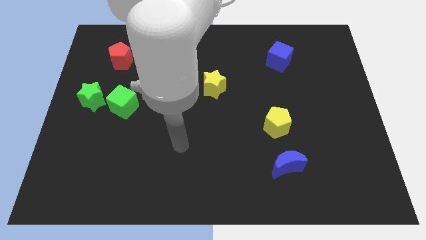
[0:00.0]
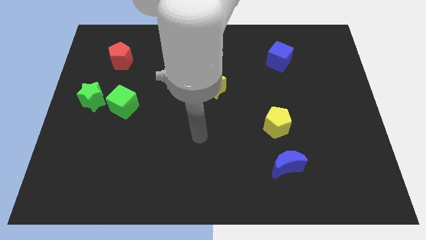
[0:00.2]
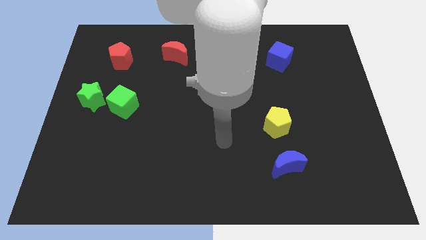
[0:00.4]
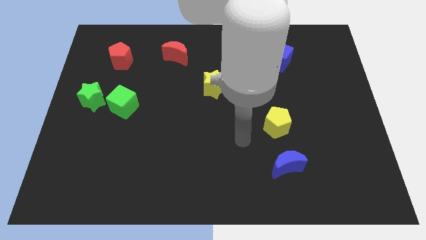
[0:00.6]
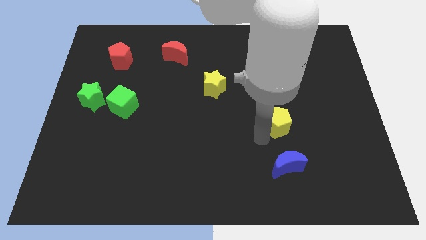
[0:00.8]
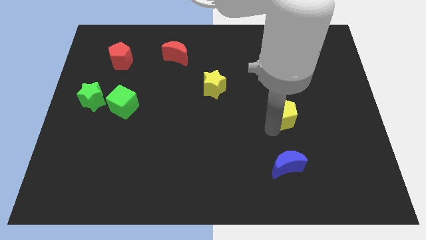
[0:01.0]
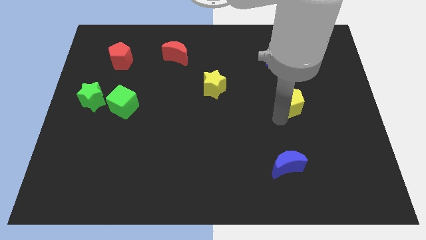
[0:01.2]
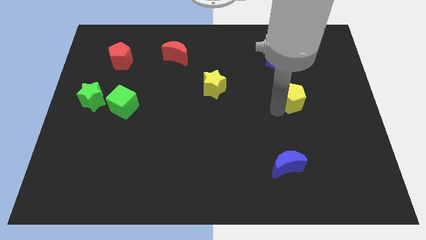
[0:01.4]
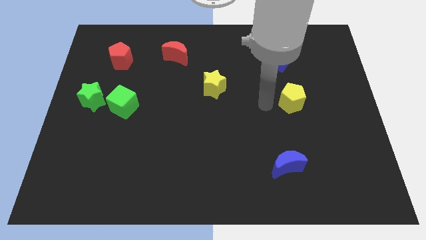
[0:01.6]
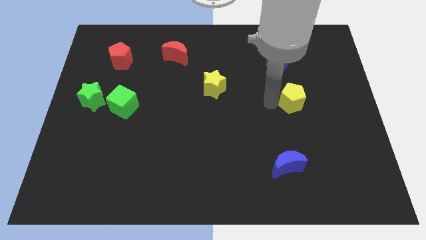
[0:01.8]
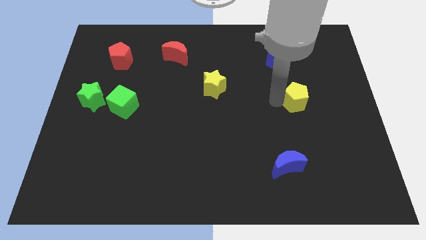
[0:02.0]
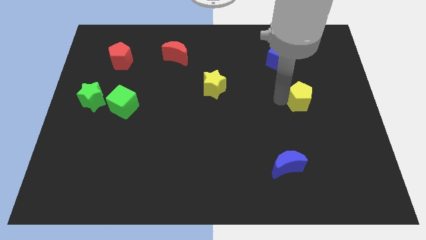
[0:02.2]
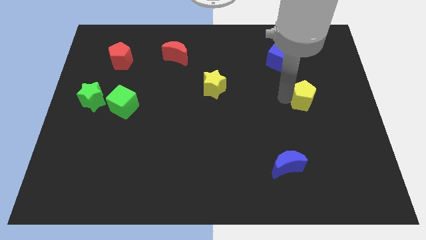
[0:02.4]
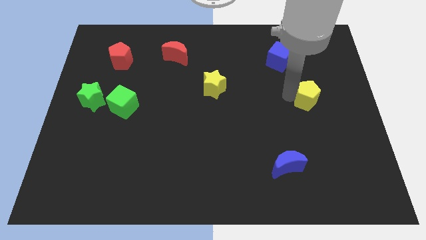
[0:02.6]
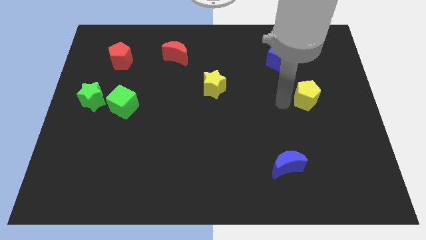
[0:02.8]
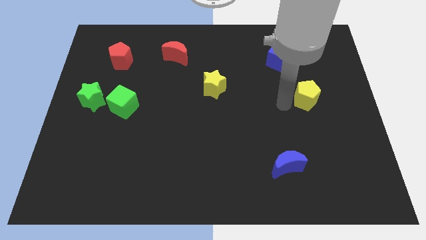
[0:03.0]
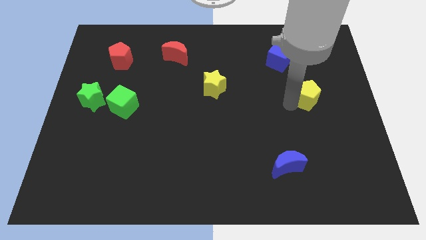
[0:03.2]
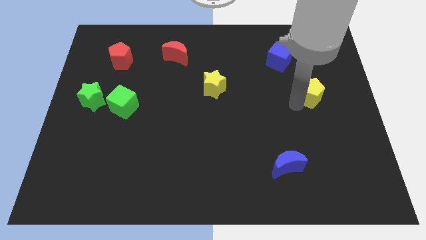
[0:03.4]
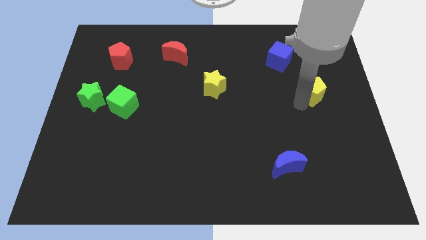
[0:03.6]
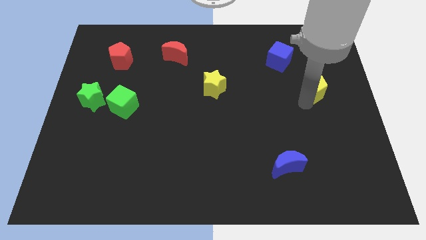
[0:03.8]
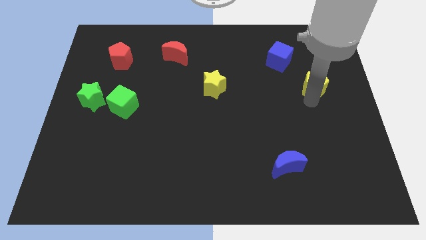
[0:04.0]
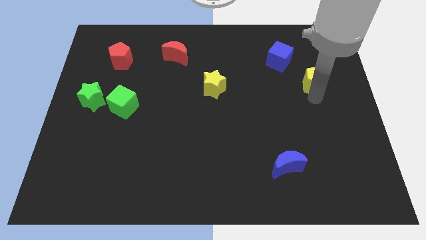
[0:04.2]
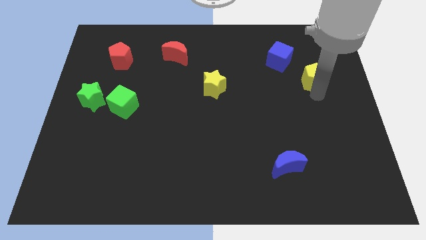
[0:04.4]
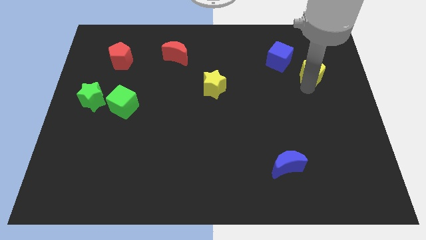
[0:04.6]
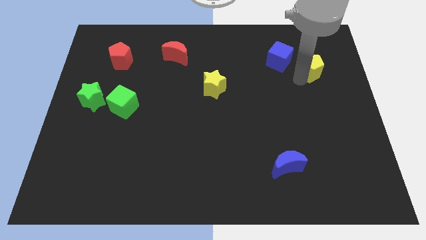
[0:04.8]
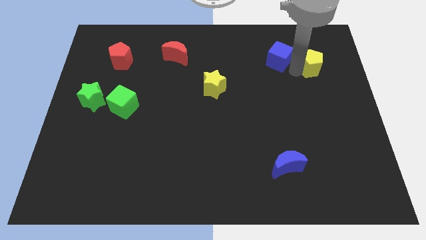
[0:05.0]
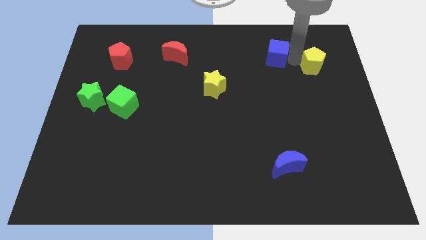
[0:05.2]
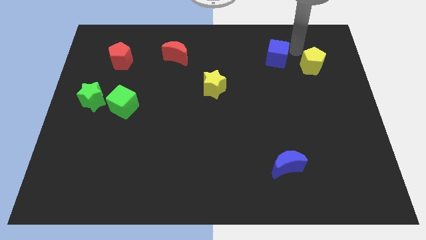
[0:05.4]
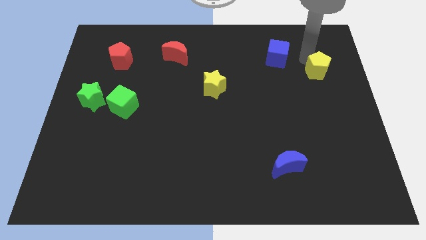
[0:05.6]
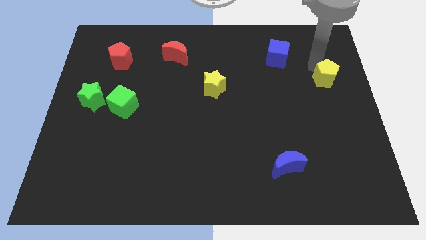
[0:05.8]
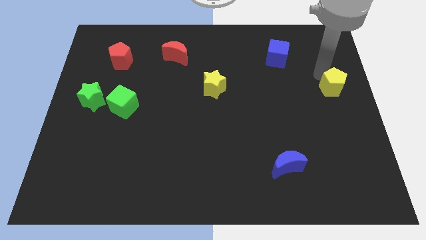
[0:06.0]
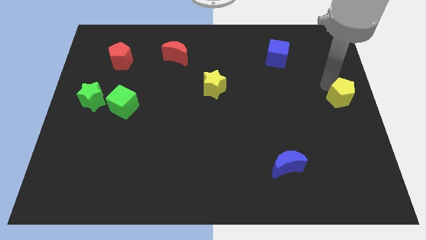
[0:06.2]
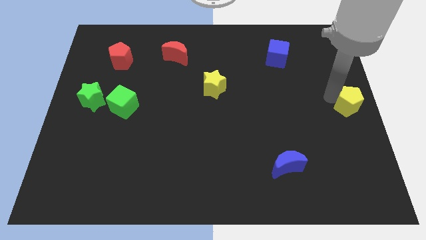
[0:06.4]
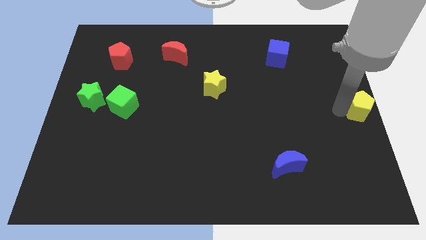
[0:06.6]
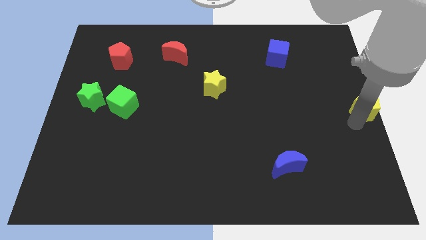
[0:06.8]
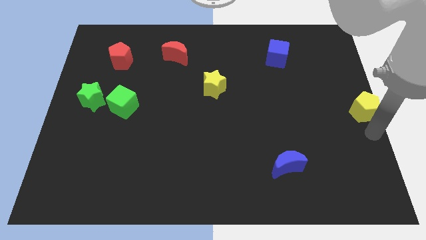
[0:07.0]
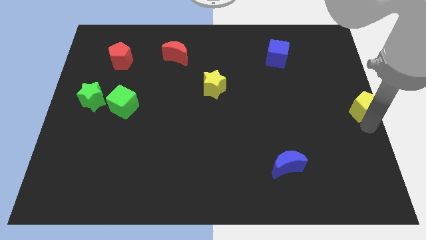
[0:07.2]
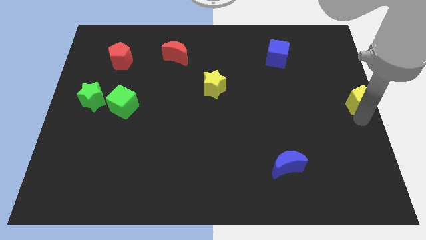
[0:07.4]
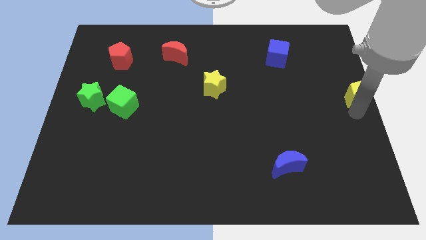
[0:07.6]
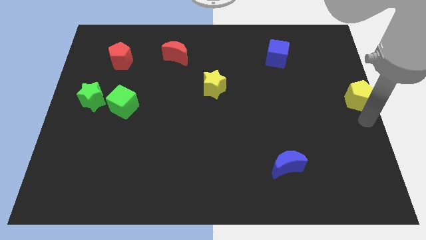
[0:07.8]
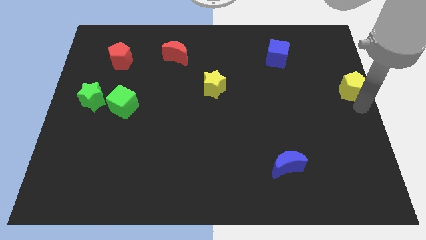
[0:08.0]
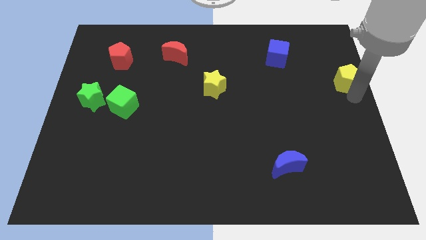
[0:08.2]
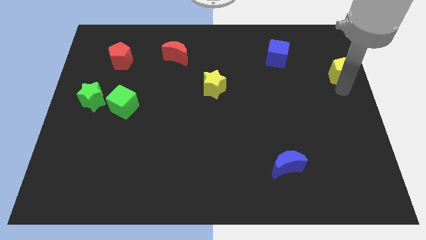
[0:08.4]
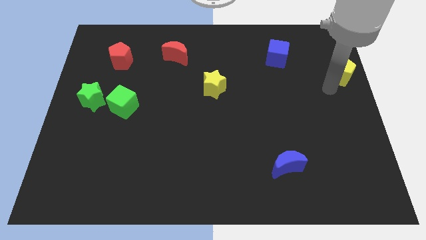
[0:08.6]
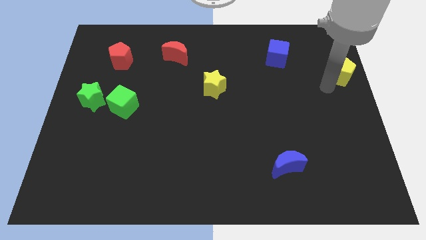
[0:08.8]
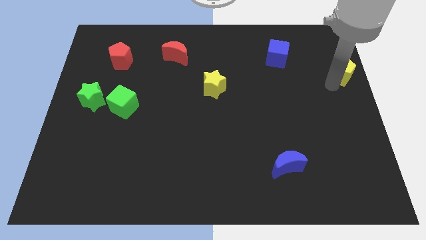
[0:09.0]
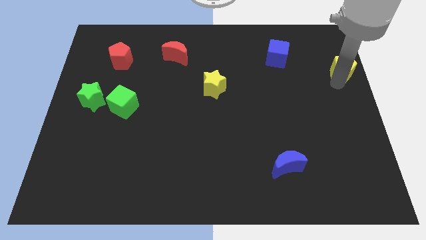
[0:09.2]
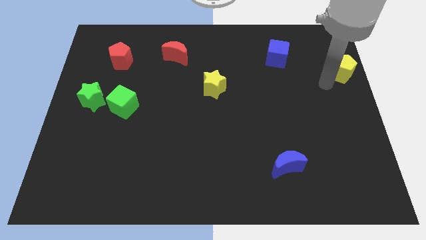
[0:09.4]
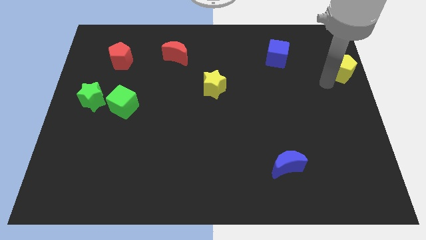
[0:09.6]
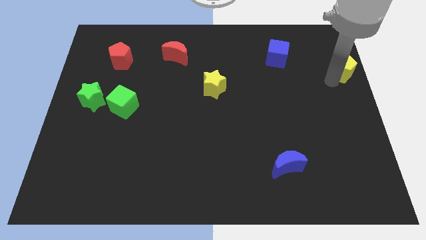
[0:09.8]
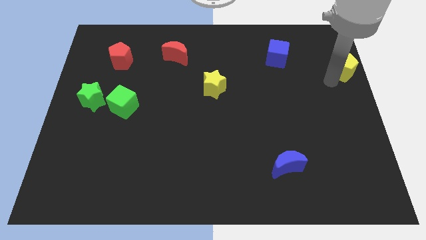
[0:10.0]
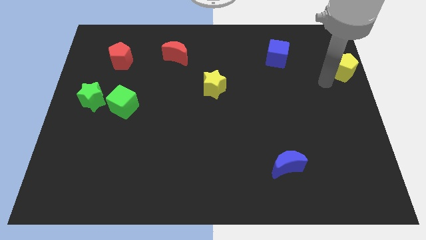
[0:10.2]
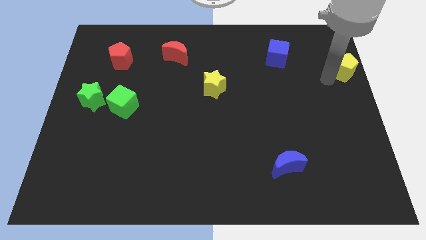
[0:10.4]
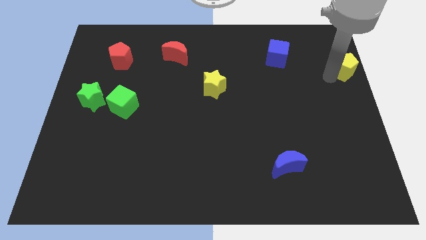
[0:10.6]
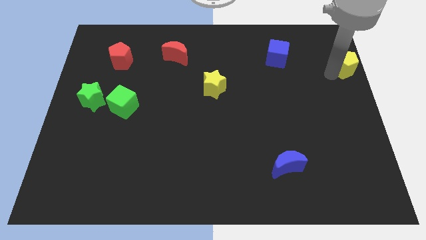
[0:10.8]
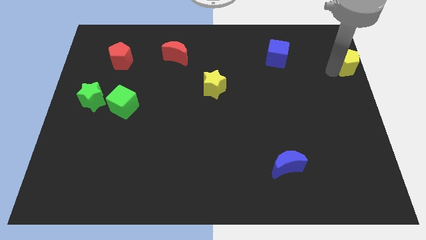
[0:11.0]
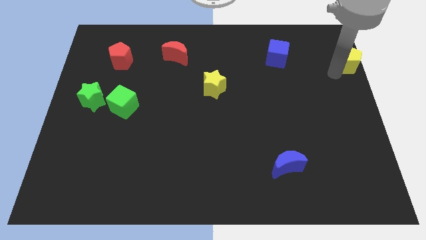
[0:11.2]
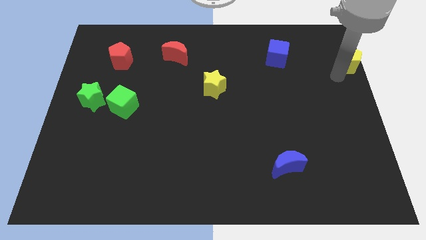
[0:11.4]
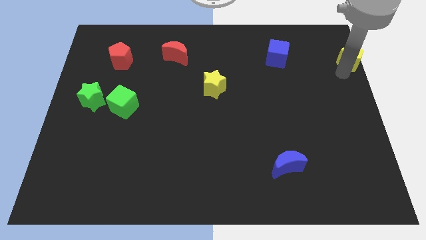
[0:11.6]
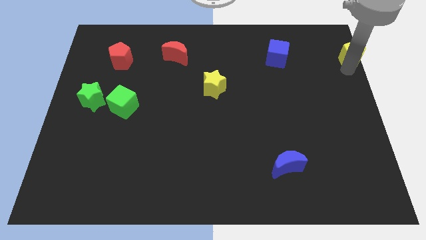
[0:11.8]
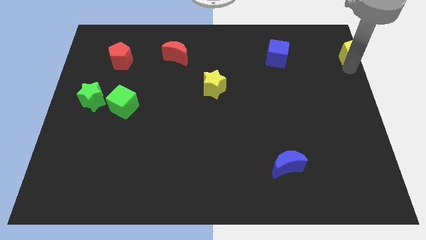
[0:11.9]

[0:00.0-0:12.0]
put the yellow pentagon to the top right of the board

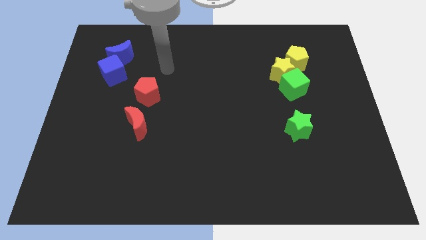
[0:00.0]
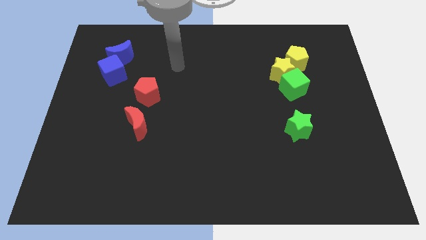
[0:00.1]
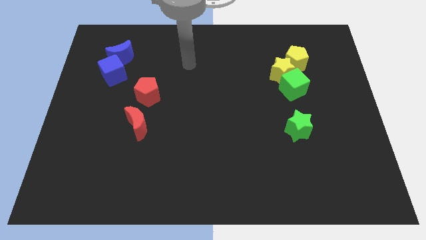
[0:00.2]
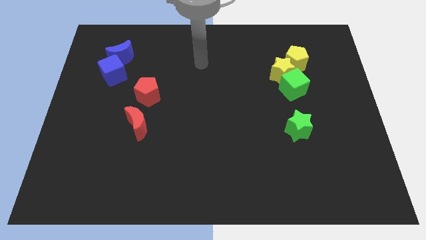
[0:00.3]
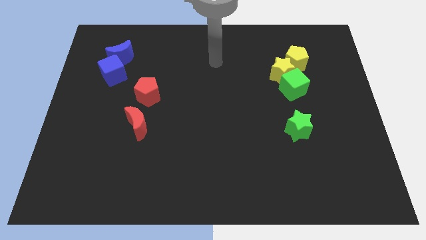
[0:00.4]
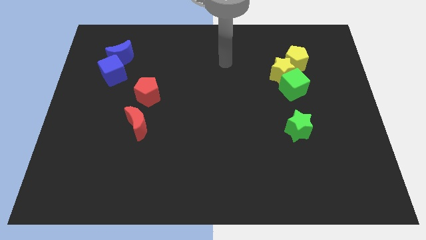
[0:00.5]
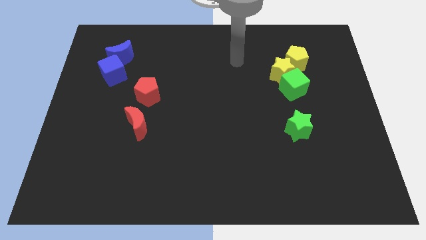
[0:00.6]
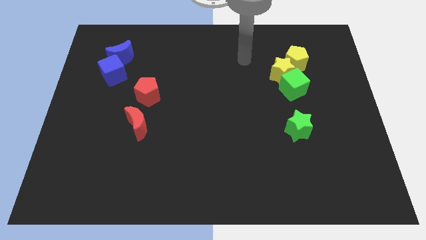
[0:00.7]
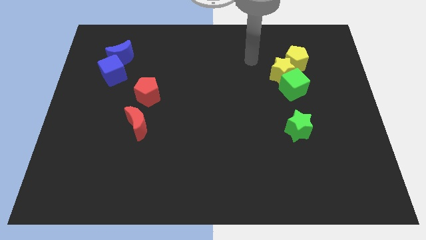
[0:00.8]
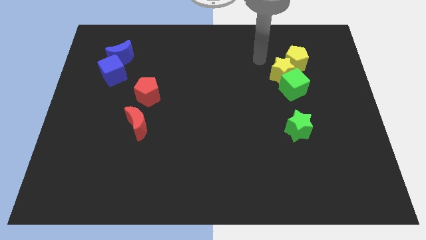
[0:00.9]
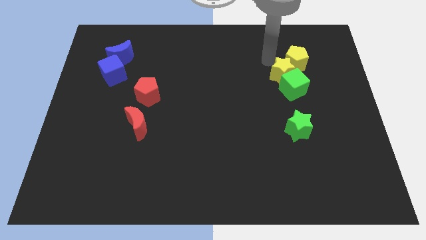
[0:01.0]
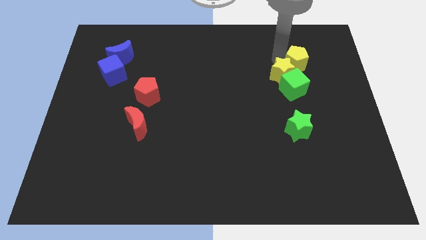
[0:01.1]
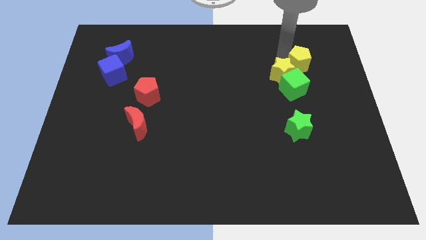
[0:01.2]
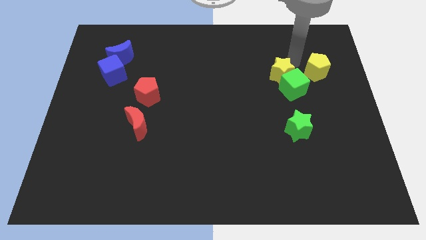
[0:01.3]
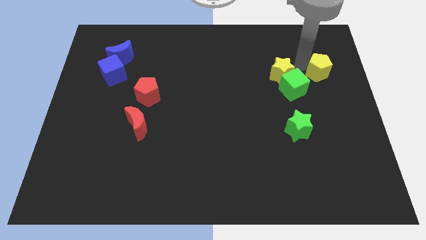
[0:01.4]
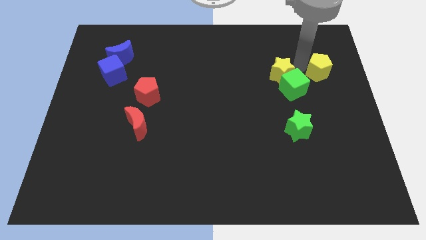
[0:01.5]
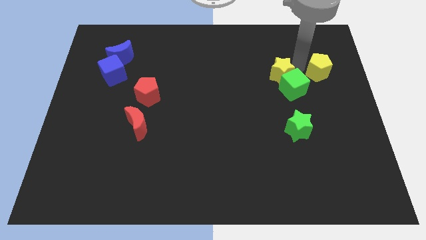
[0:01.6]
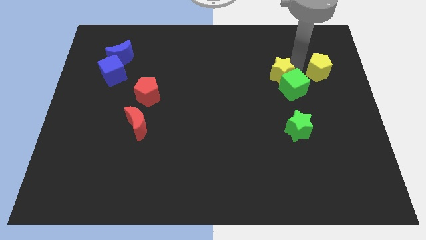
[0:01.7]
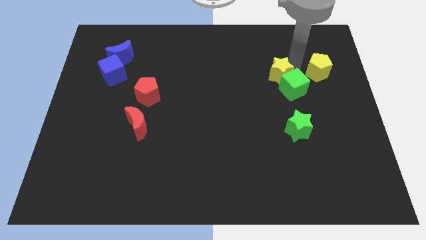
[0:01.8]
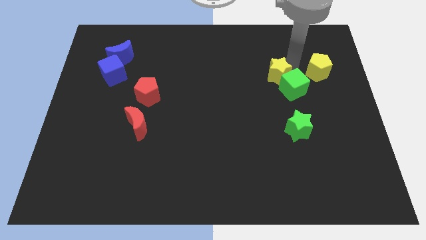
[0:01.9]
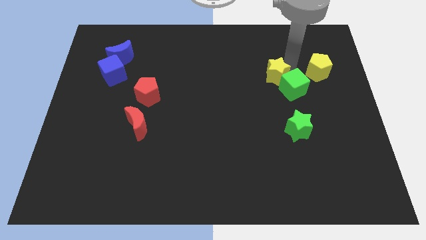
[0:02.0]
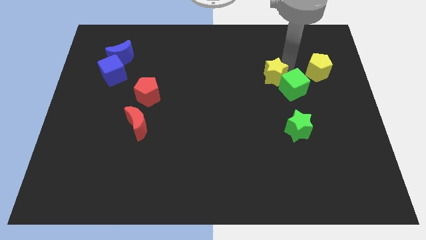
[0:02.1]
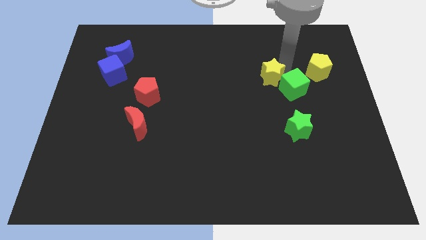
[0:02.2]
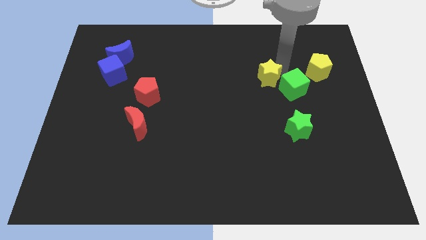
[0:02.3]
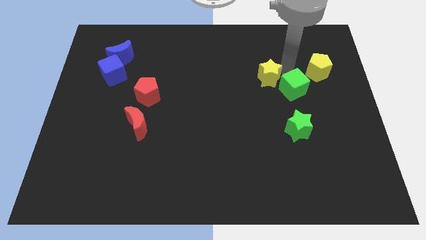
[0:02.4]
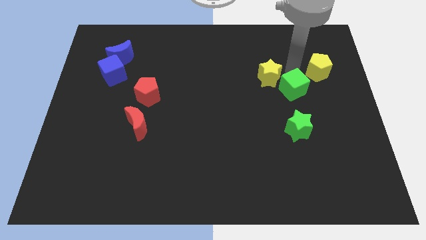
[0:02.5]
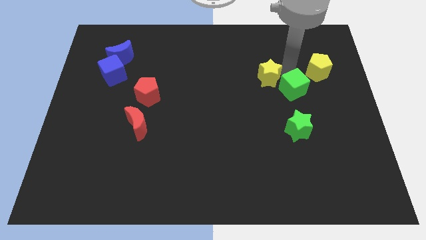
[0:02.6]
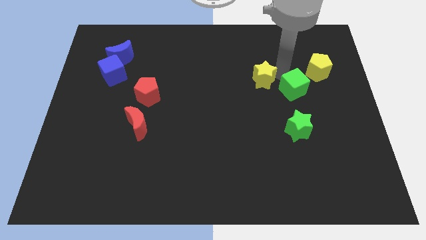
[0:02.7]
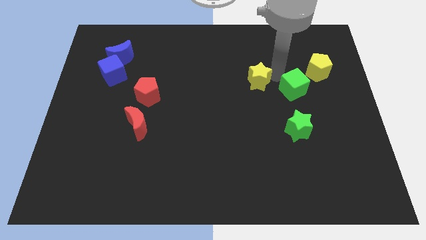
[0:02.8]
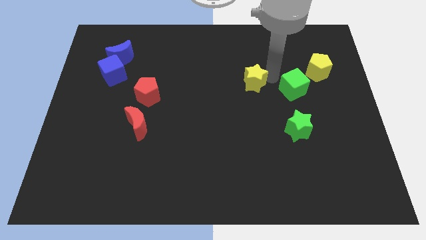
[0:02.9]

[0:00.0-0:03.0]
push the yellow star to the center
